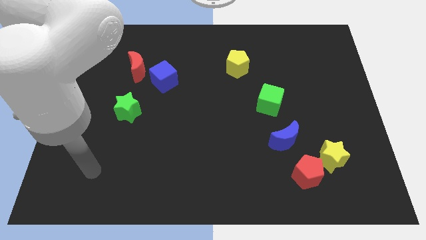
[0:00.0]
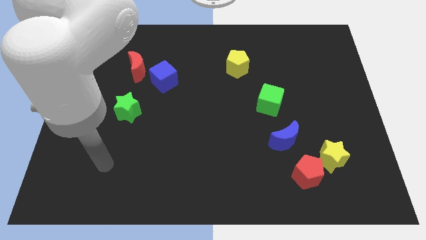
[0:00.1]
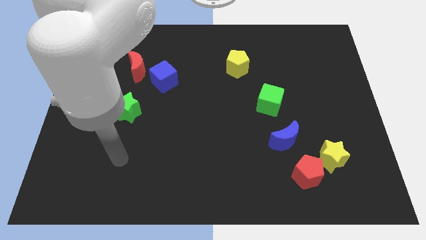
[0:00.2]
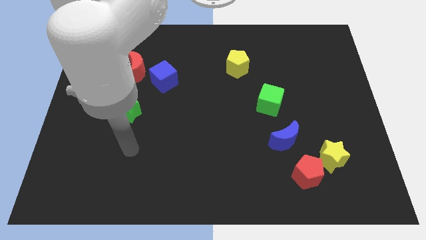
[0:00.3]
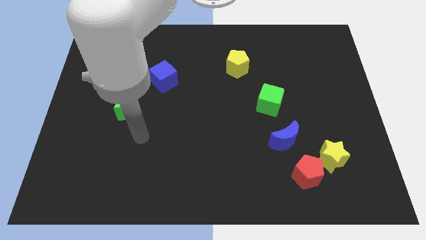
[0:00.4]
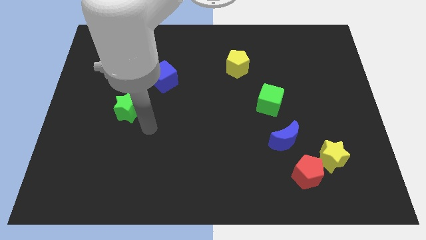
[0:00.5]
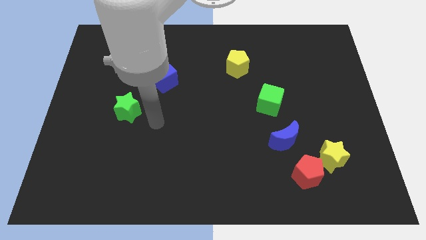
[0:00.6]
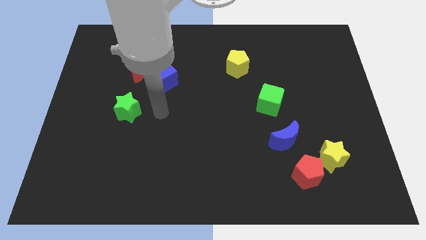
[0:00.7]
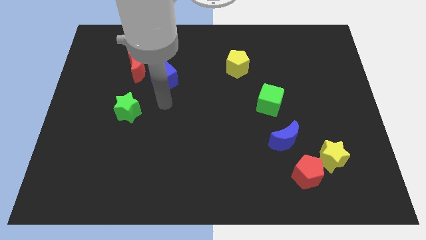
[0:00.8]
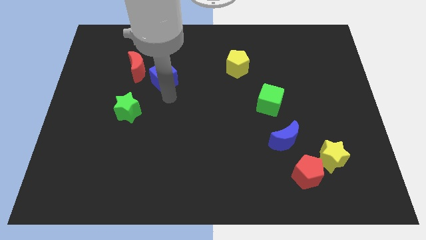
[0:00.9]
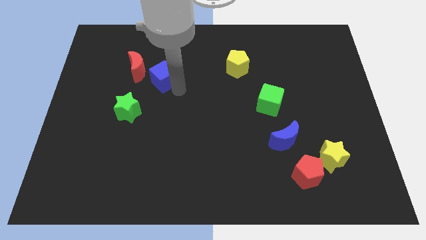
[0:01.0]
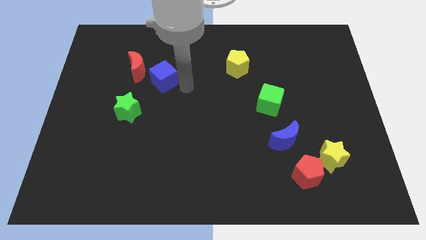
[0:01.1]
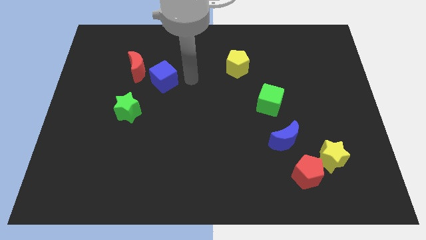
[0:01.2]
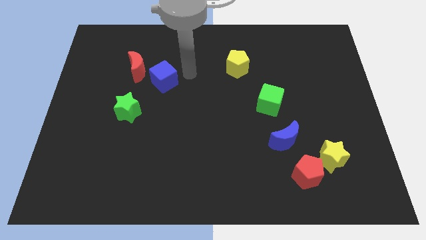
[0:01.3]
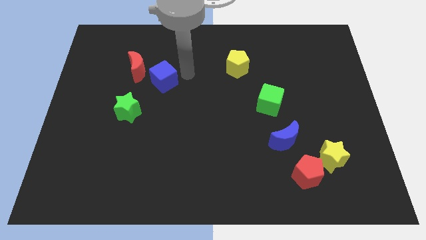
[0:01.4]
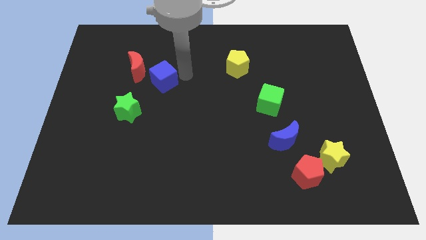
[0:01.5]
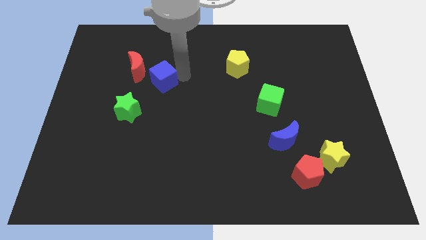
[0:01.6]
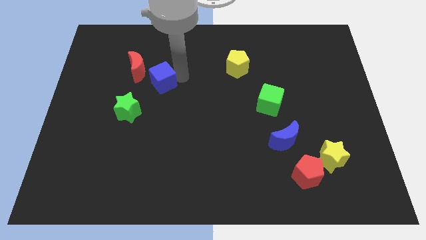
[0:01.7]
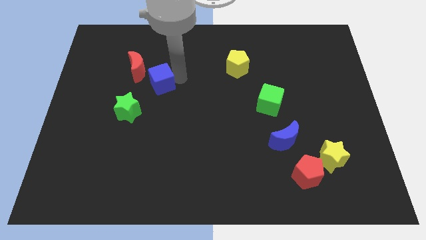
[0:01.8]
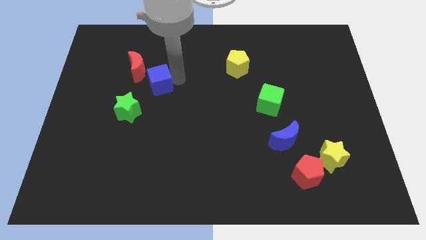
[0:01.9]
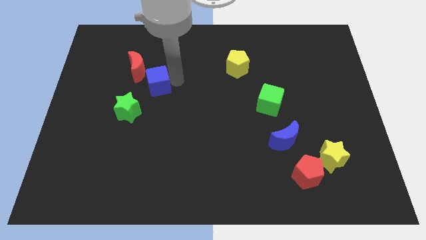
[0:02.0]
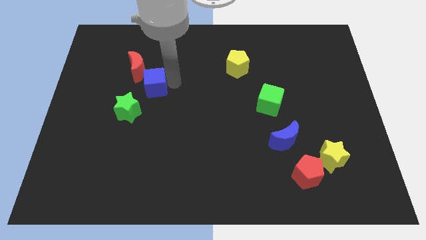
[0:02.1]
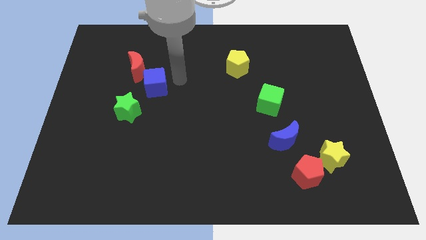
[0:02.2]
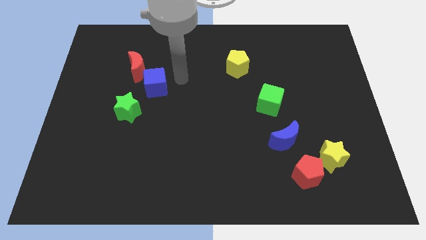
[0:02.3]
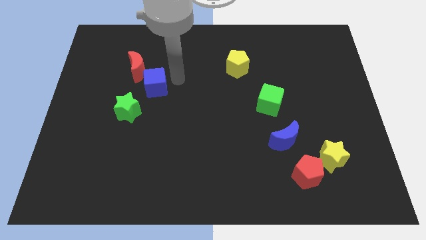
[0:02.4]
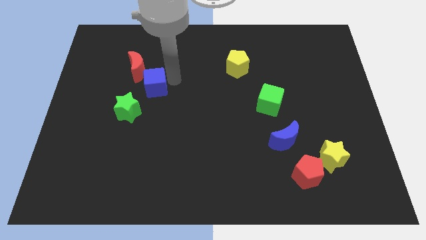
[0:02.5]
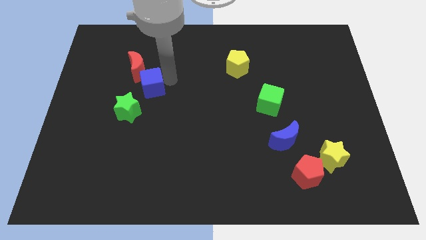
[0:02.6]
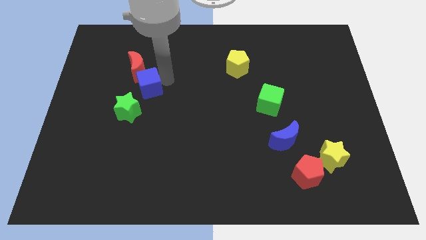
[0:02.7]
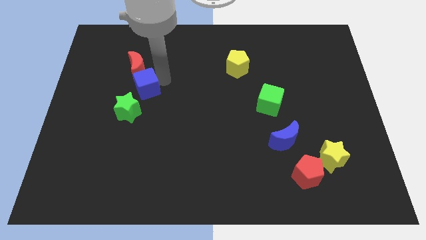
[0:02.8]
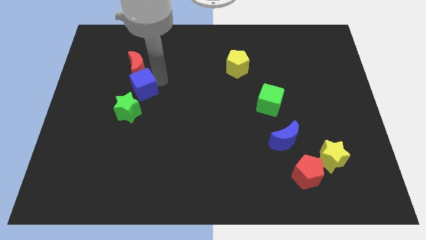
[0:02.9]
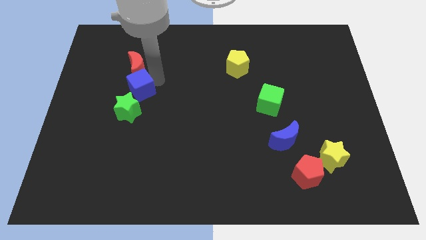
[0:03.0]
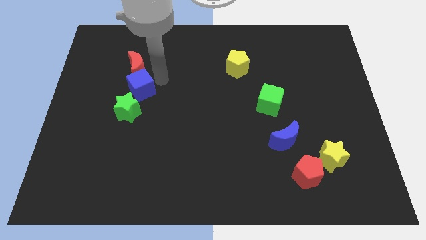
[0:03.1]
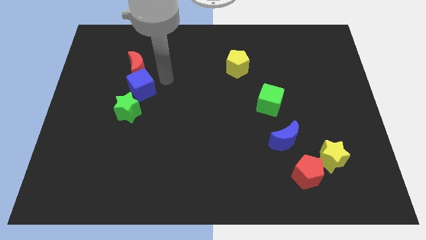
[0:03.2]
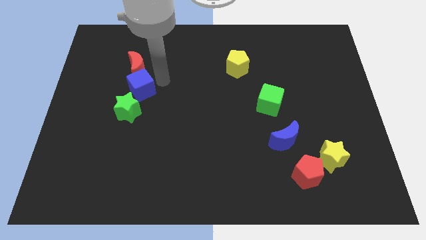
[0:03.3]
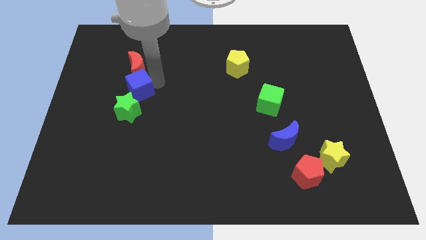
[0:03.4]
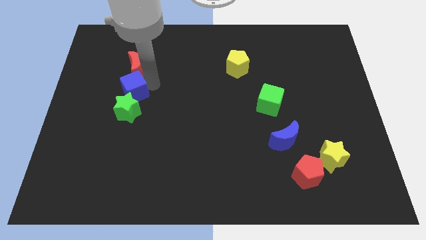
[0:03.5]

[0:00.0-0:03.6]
slightly slide the blue cube diagonally down and left

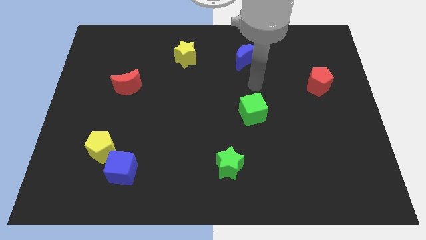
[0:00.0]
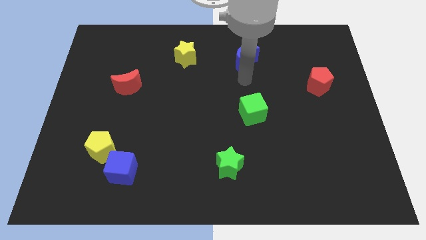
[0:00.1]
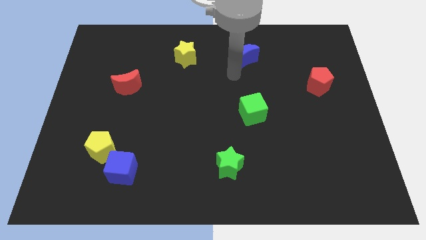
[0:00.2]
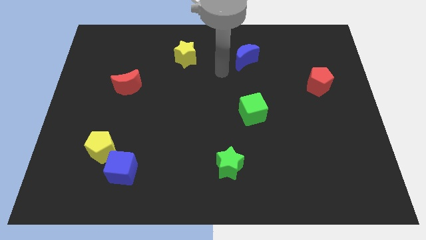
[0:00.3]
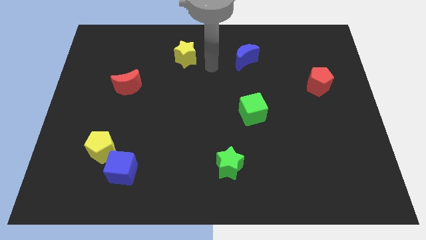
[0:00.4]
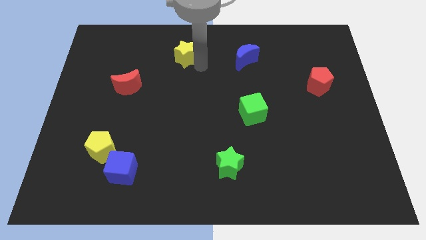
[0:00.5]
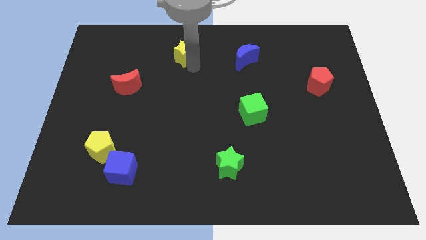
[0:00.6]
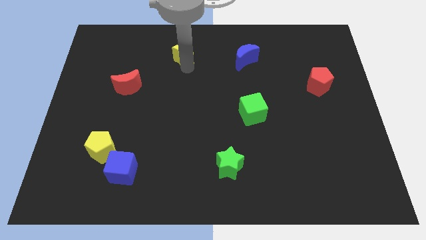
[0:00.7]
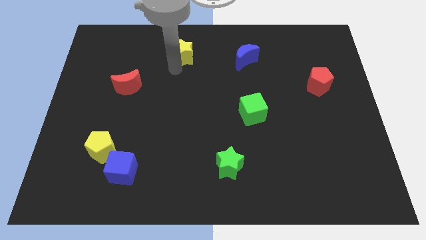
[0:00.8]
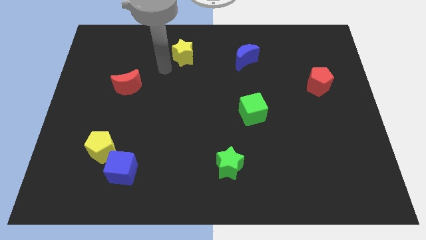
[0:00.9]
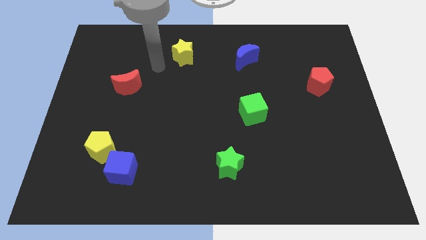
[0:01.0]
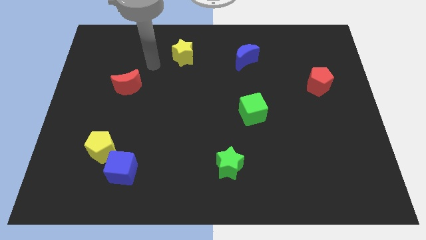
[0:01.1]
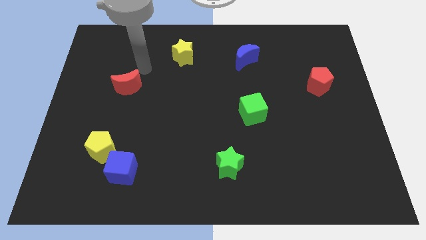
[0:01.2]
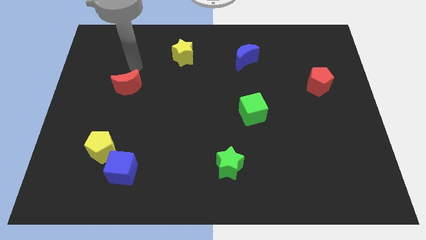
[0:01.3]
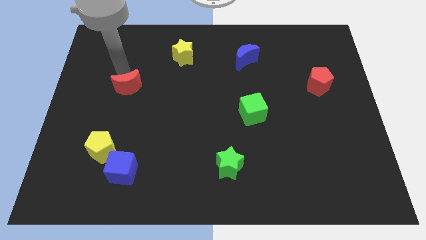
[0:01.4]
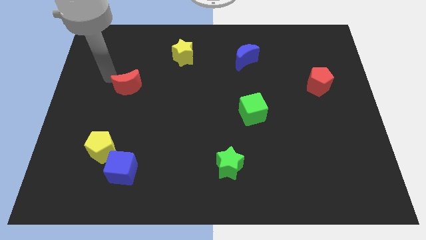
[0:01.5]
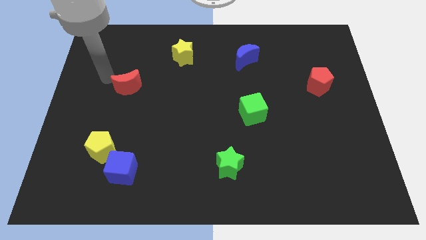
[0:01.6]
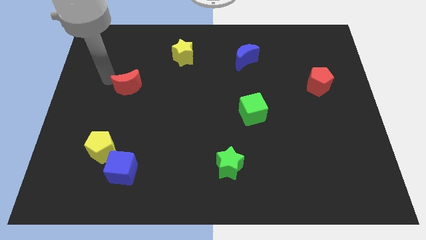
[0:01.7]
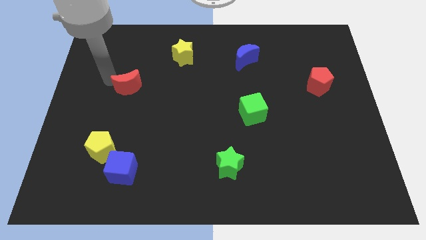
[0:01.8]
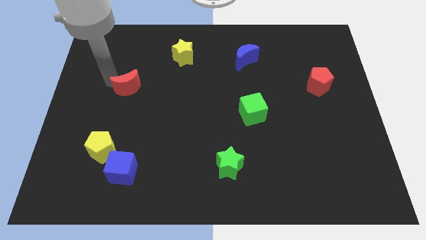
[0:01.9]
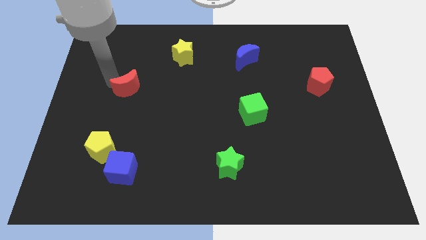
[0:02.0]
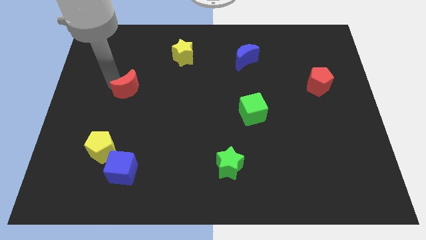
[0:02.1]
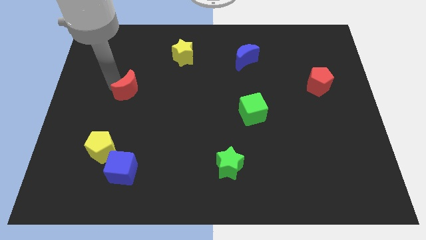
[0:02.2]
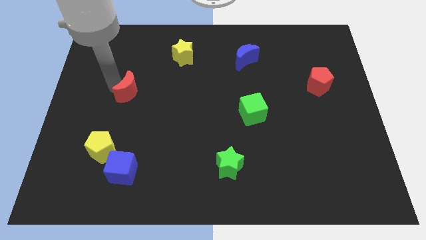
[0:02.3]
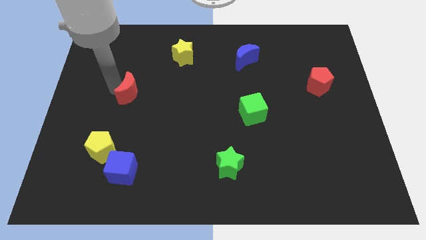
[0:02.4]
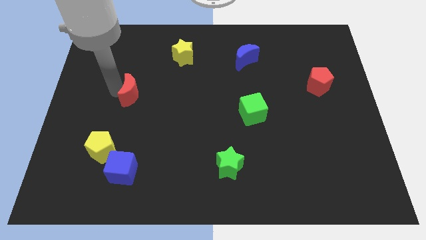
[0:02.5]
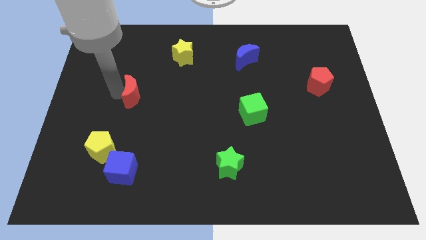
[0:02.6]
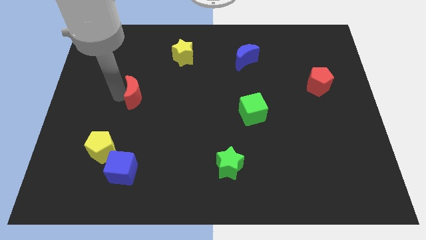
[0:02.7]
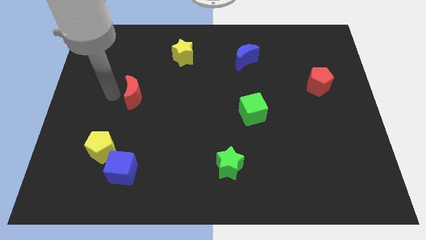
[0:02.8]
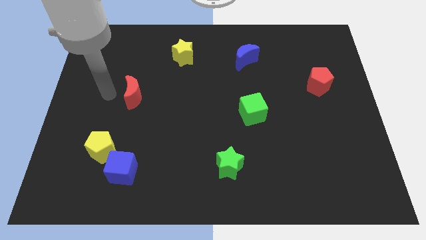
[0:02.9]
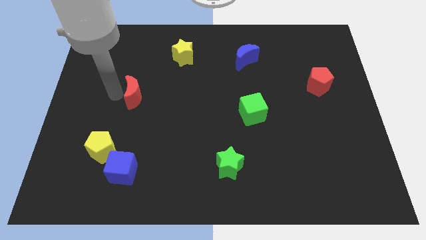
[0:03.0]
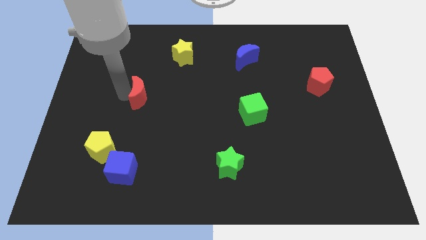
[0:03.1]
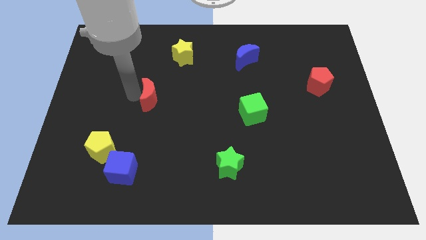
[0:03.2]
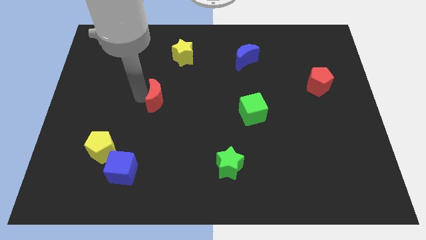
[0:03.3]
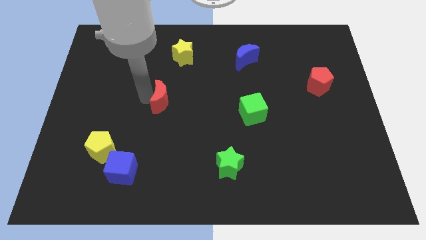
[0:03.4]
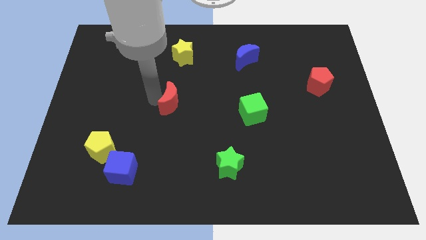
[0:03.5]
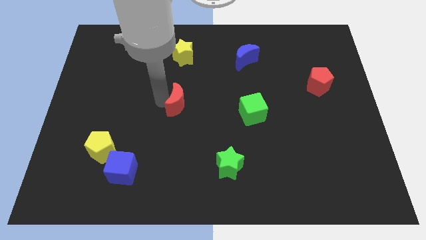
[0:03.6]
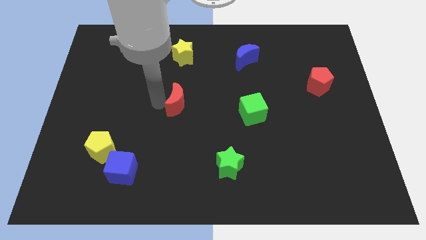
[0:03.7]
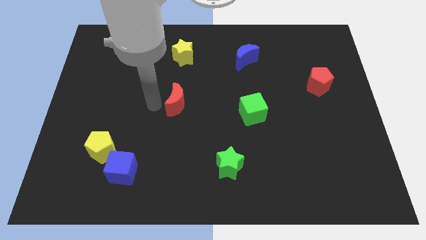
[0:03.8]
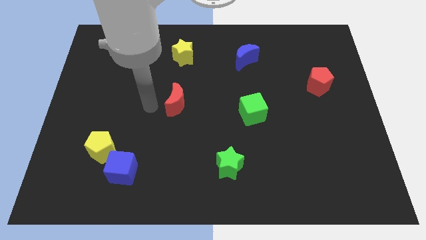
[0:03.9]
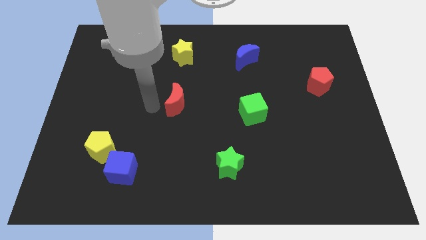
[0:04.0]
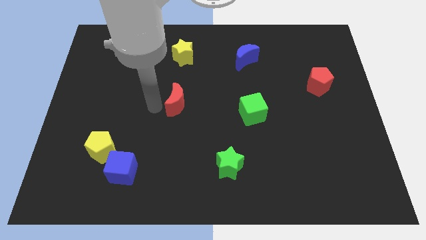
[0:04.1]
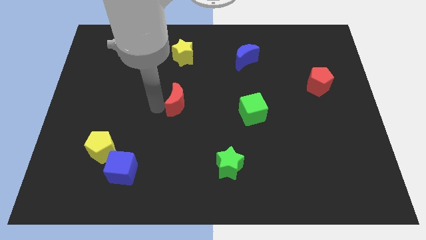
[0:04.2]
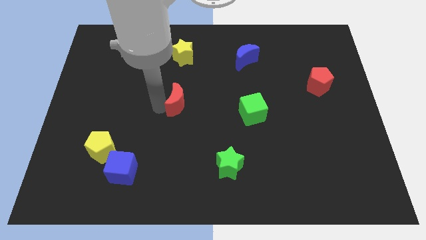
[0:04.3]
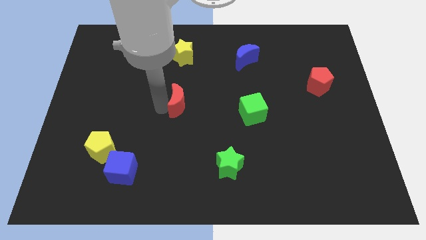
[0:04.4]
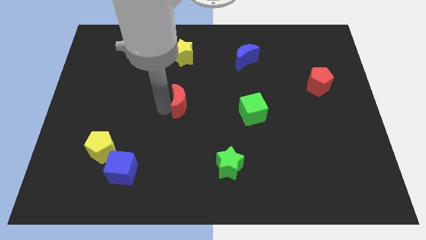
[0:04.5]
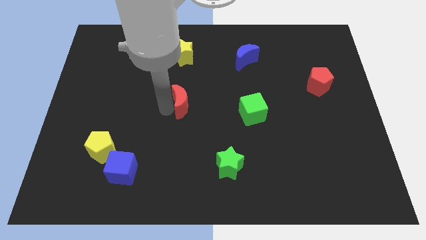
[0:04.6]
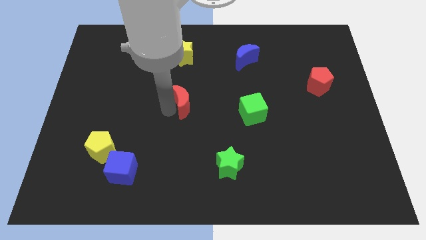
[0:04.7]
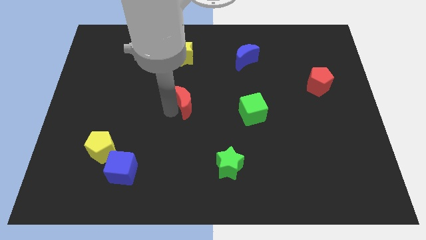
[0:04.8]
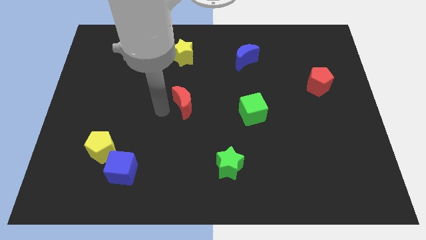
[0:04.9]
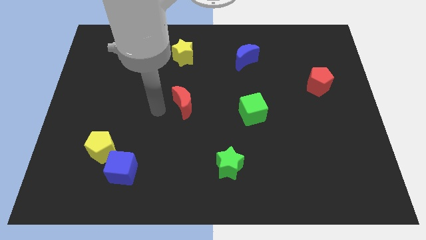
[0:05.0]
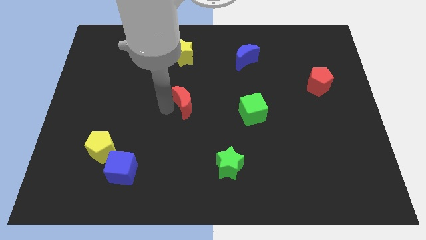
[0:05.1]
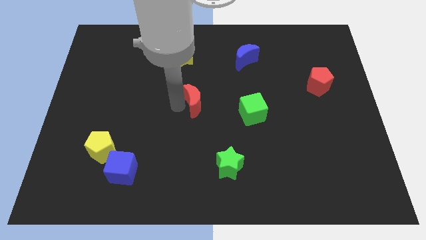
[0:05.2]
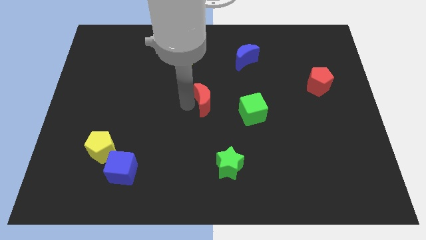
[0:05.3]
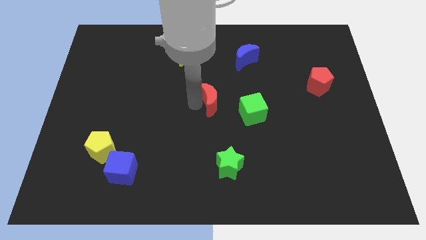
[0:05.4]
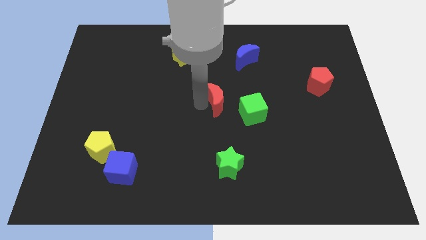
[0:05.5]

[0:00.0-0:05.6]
move the red moon to the right
